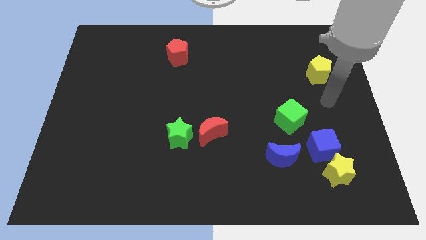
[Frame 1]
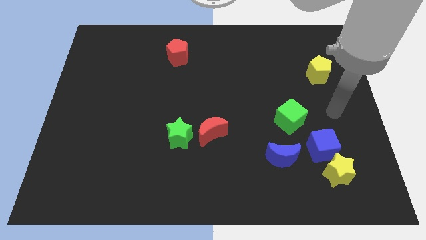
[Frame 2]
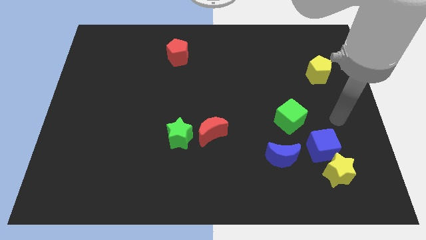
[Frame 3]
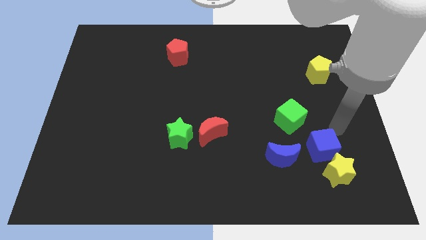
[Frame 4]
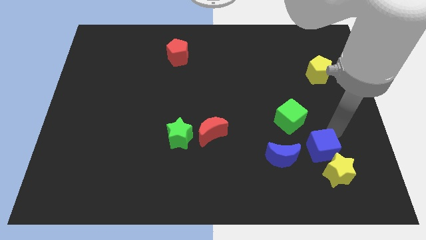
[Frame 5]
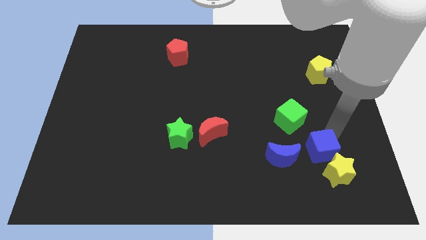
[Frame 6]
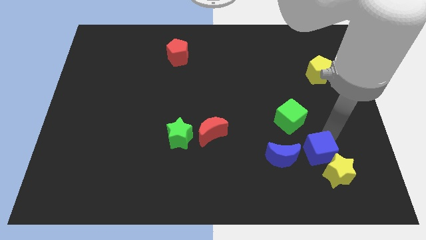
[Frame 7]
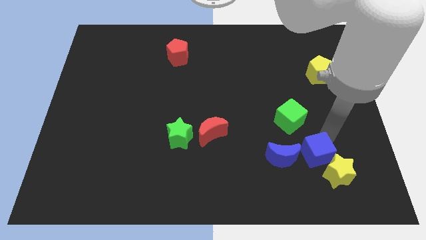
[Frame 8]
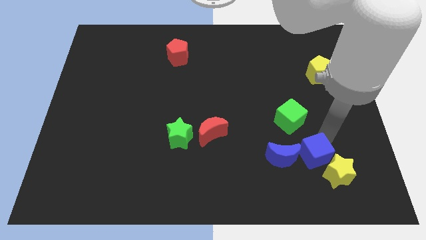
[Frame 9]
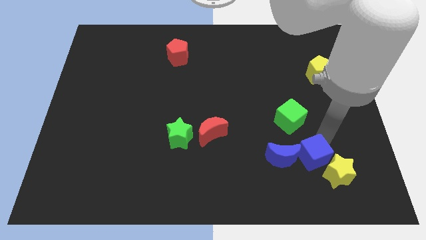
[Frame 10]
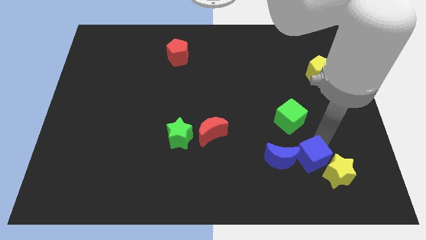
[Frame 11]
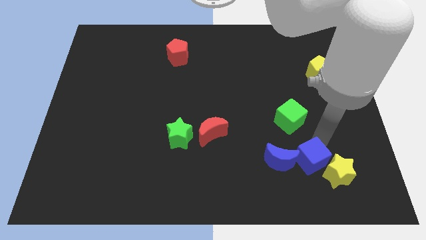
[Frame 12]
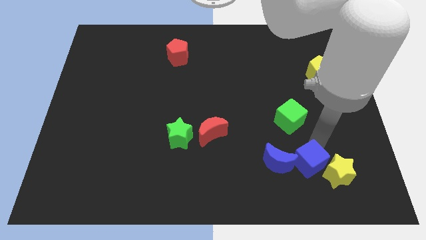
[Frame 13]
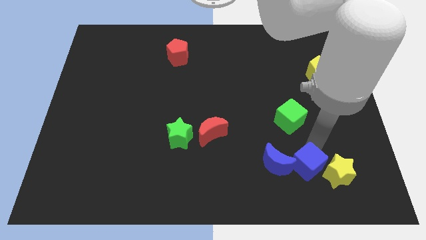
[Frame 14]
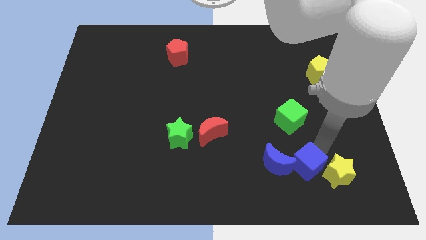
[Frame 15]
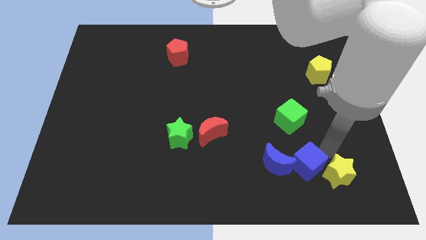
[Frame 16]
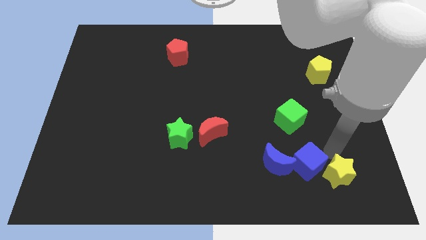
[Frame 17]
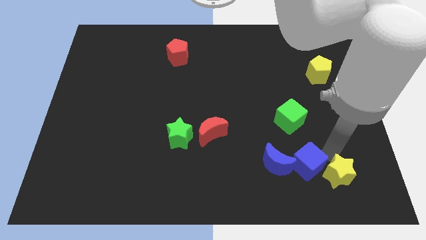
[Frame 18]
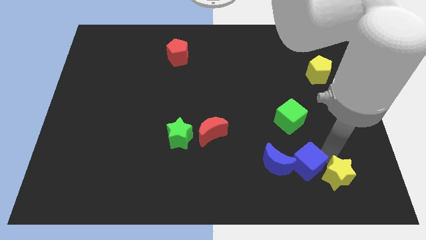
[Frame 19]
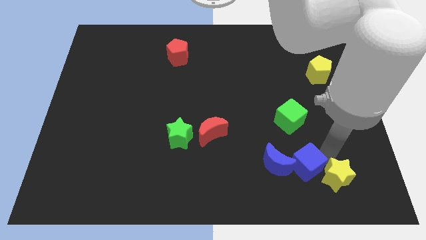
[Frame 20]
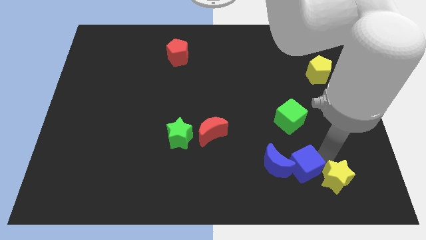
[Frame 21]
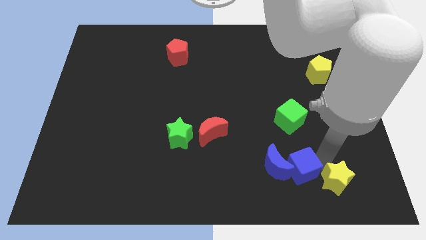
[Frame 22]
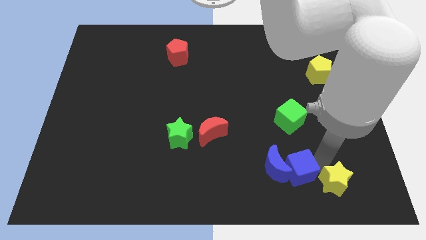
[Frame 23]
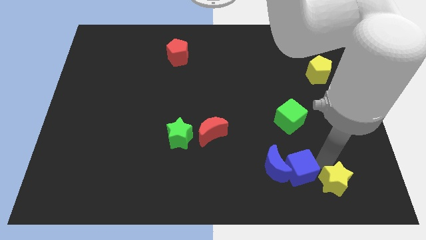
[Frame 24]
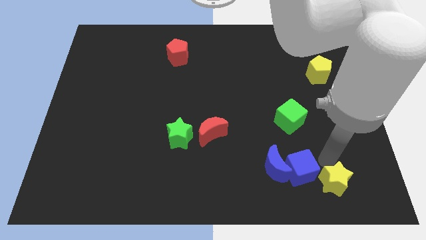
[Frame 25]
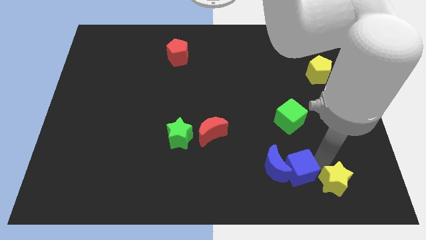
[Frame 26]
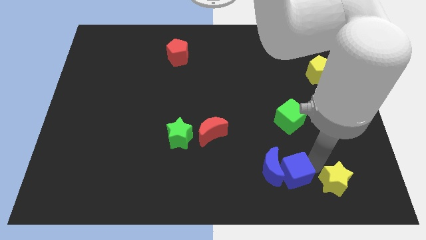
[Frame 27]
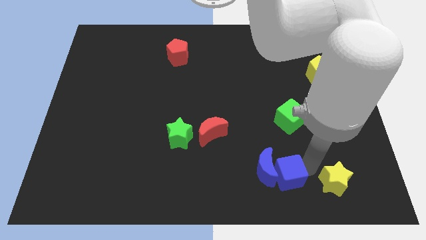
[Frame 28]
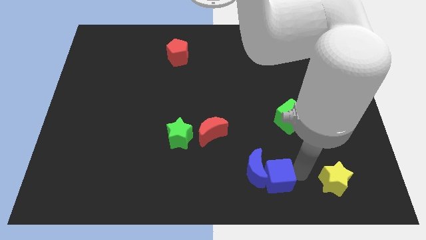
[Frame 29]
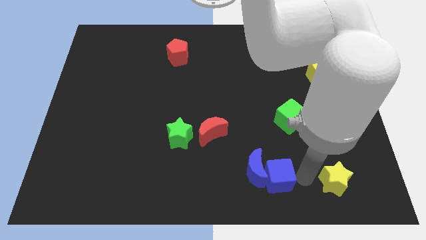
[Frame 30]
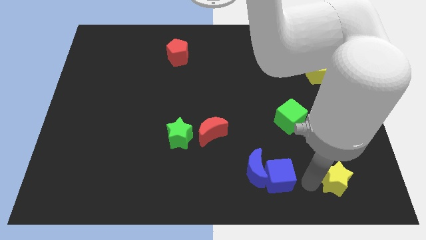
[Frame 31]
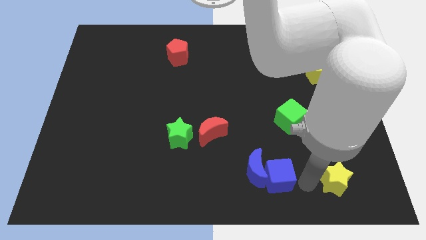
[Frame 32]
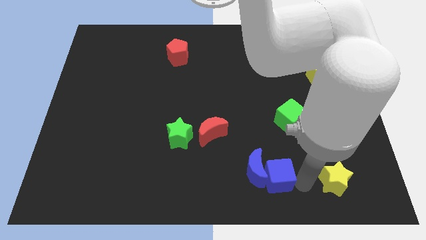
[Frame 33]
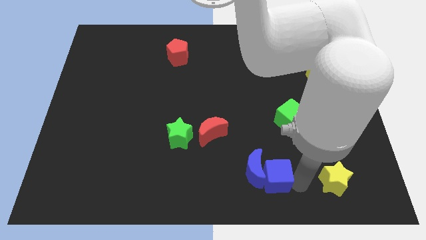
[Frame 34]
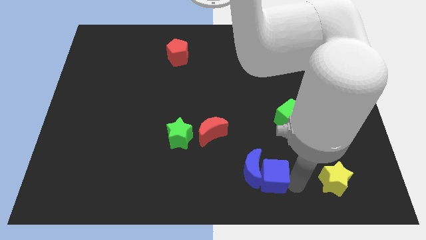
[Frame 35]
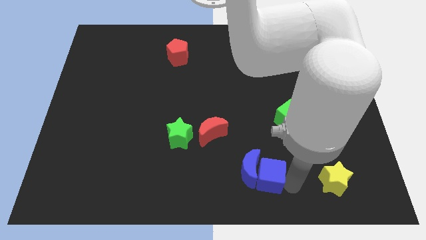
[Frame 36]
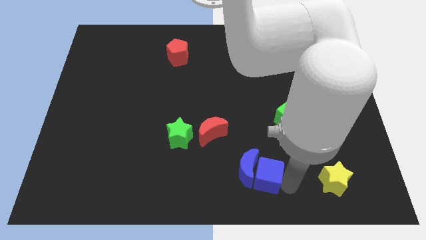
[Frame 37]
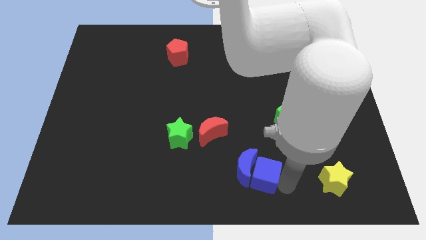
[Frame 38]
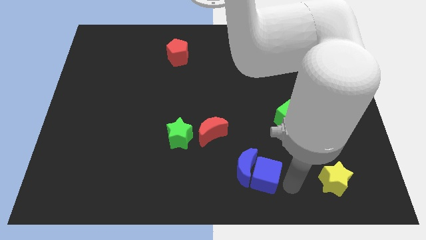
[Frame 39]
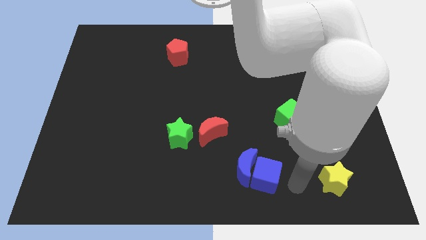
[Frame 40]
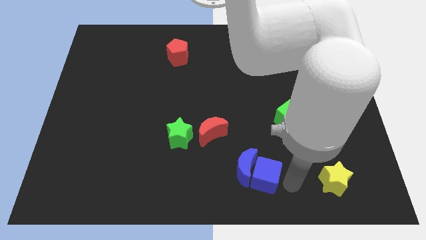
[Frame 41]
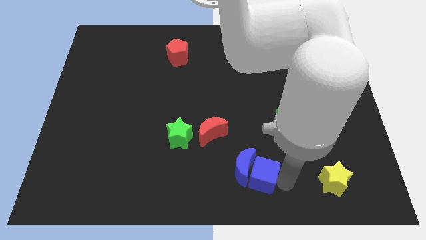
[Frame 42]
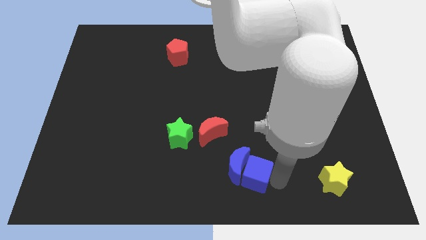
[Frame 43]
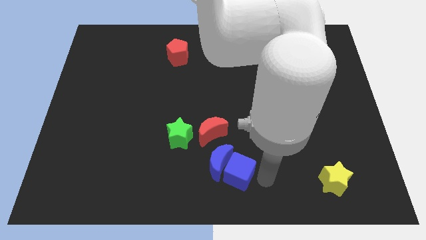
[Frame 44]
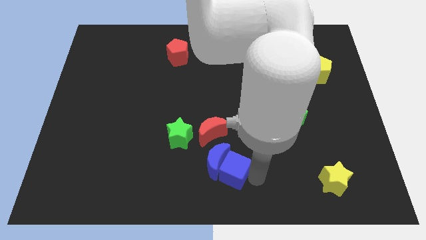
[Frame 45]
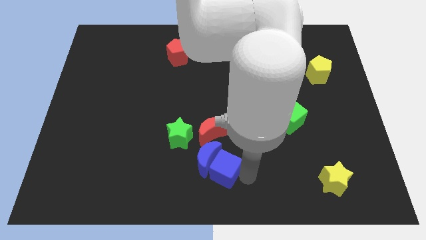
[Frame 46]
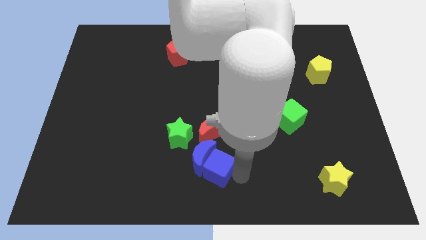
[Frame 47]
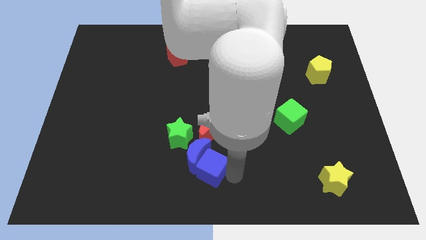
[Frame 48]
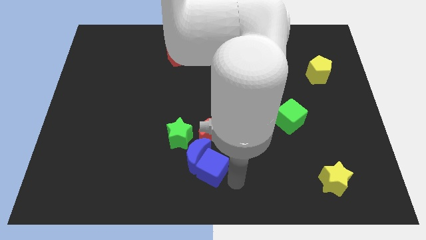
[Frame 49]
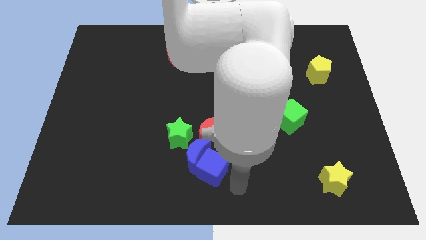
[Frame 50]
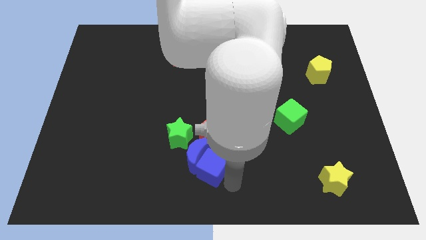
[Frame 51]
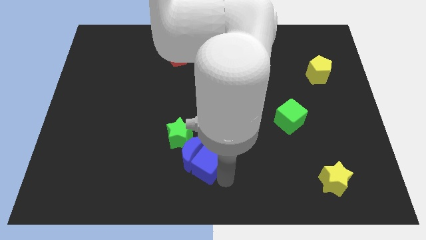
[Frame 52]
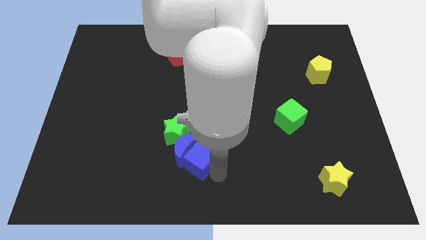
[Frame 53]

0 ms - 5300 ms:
push the blue cube diagonally down and to the left of the red moon

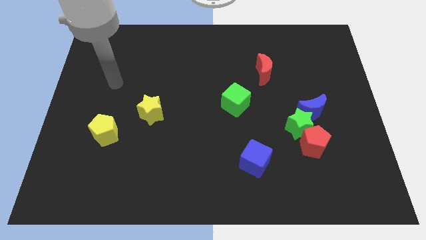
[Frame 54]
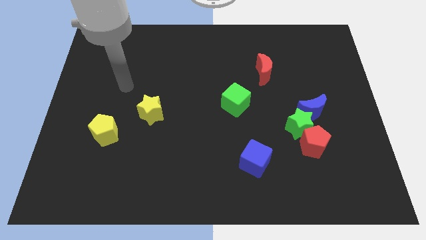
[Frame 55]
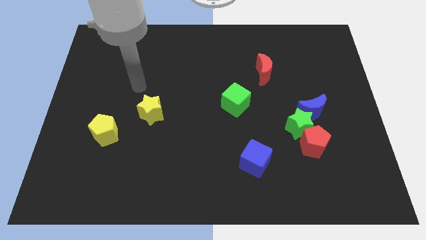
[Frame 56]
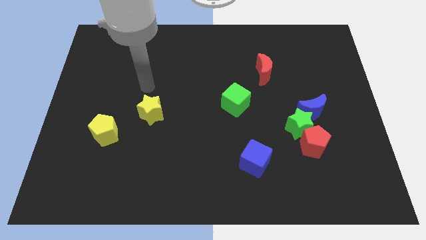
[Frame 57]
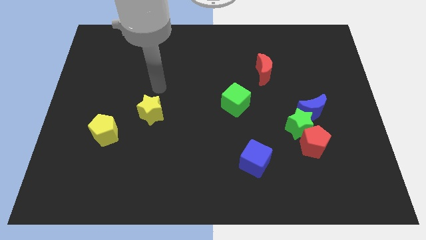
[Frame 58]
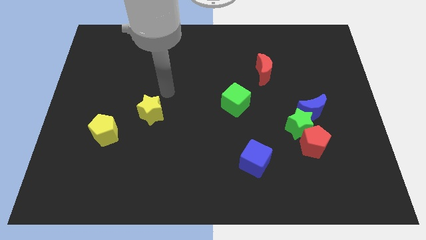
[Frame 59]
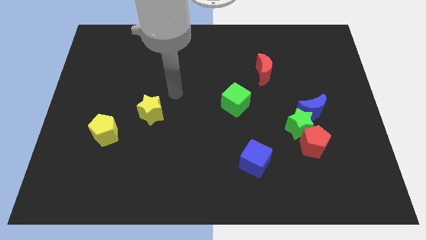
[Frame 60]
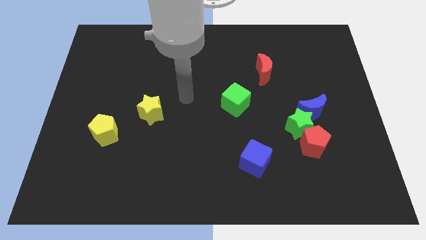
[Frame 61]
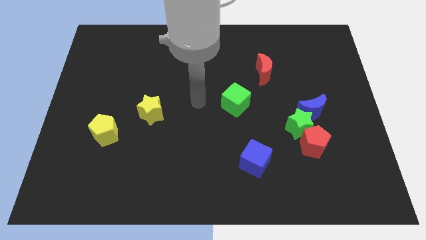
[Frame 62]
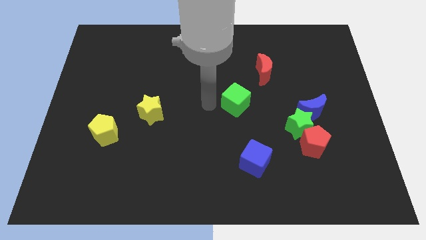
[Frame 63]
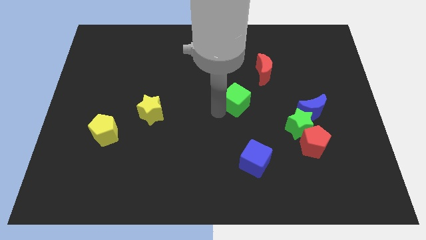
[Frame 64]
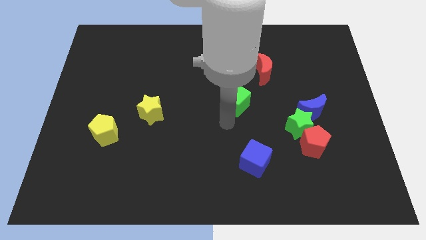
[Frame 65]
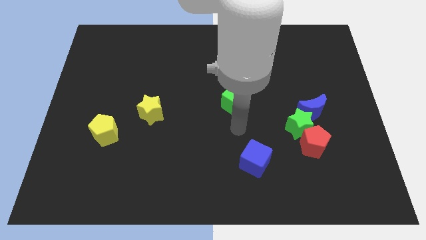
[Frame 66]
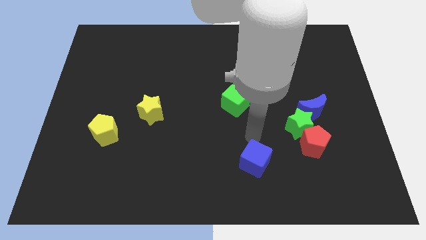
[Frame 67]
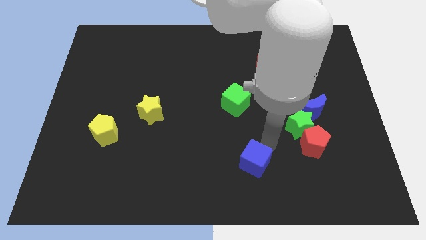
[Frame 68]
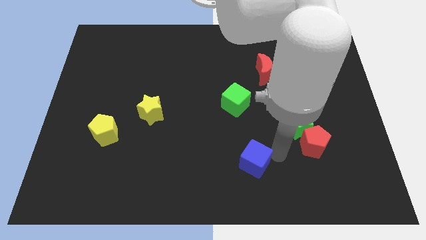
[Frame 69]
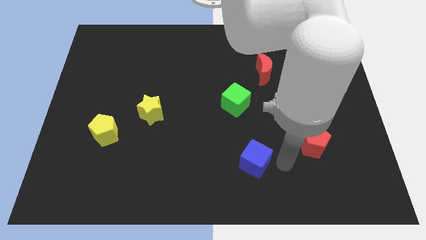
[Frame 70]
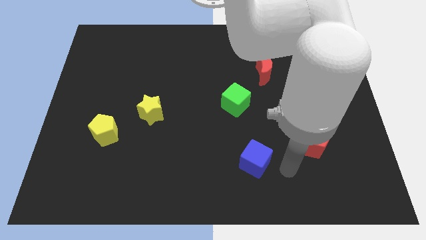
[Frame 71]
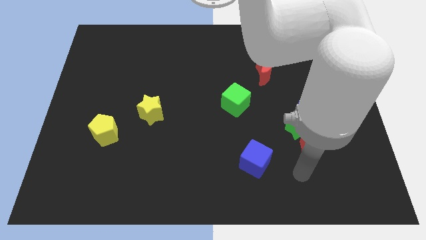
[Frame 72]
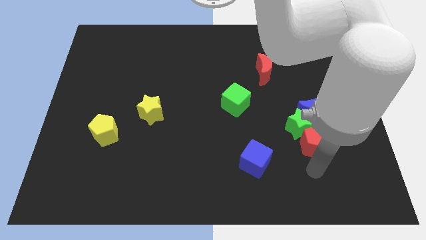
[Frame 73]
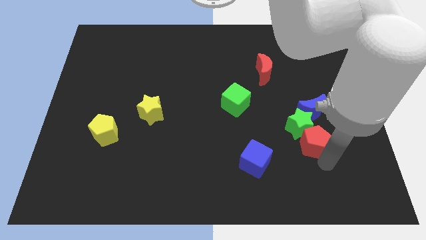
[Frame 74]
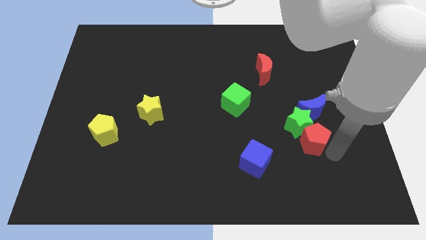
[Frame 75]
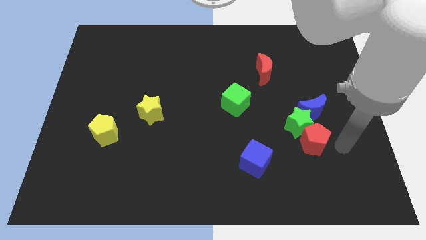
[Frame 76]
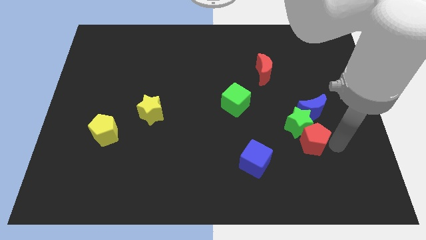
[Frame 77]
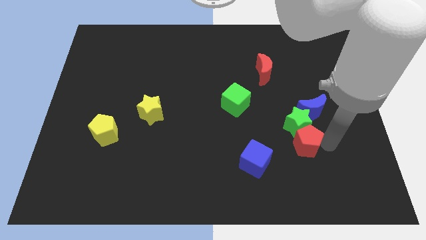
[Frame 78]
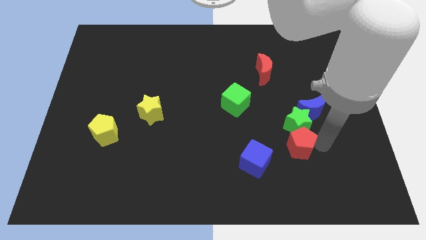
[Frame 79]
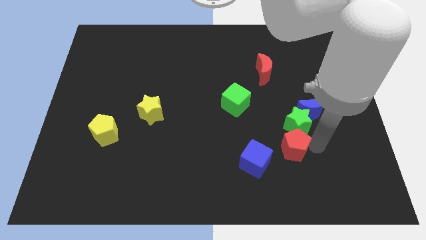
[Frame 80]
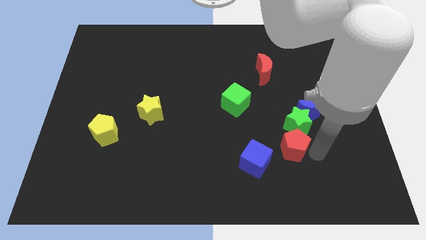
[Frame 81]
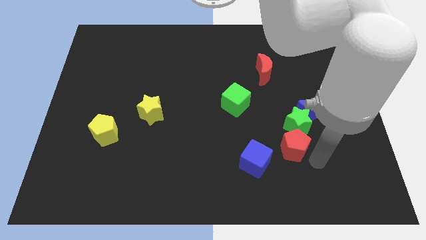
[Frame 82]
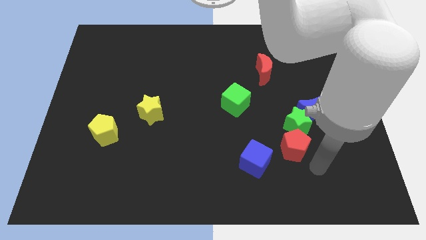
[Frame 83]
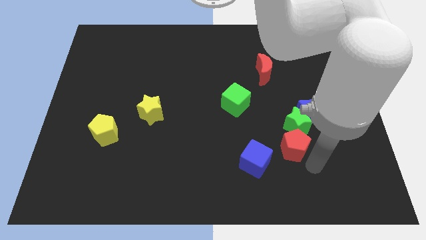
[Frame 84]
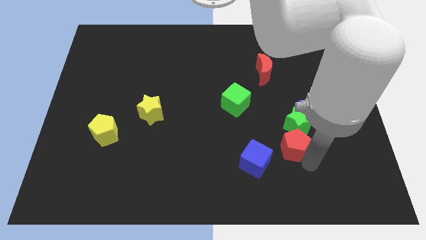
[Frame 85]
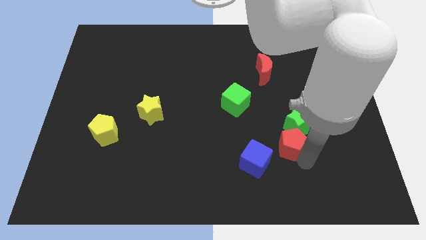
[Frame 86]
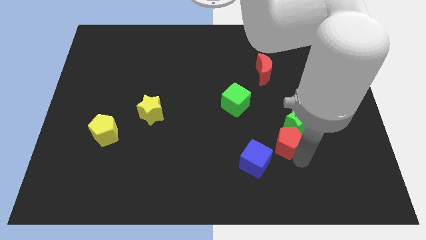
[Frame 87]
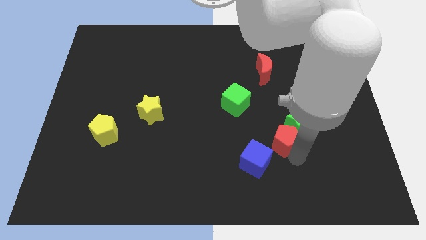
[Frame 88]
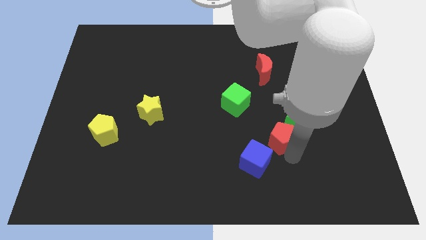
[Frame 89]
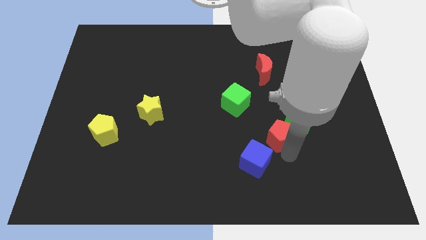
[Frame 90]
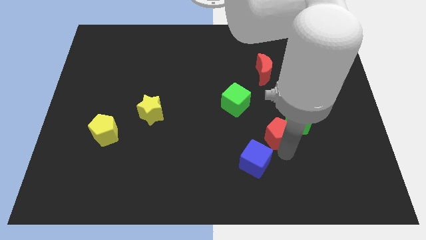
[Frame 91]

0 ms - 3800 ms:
slide the red pentagon to the bottom right of the green cube
